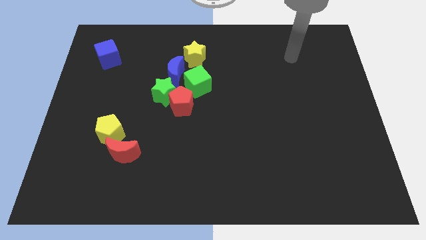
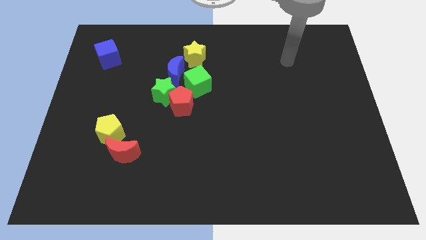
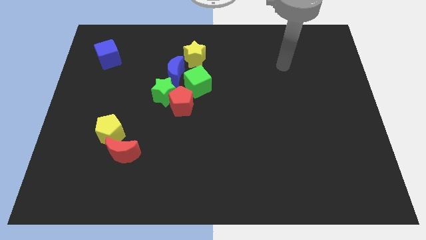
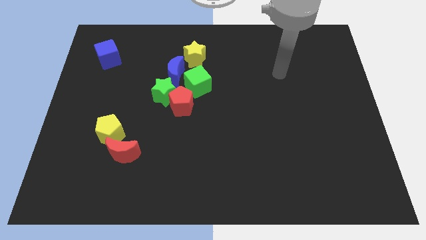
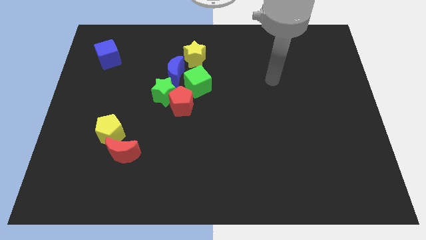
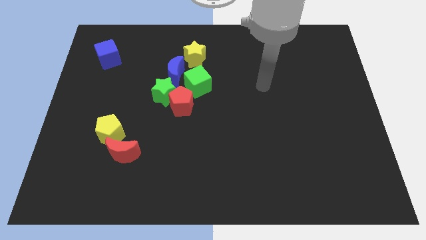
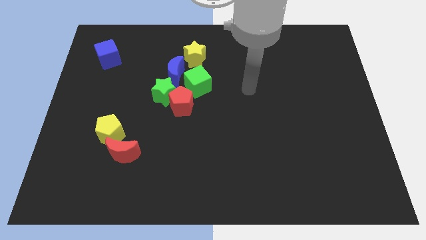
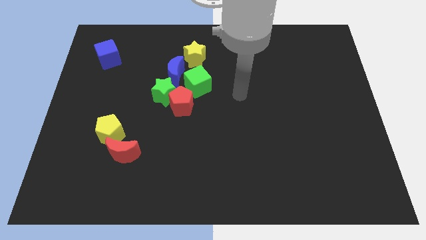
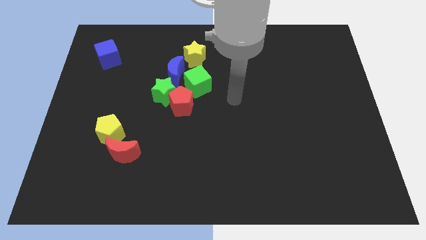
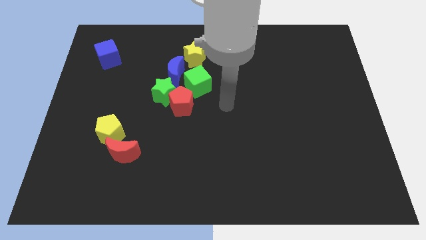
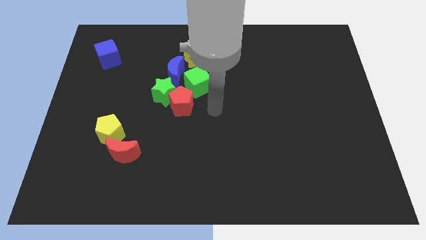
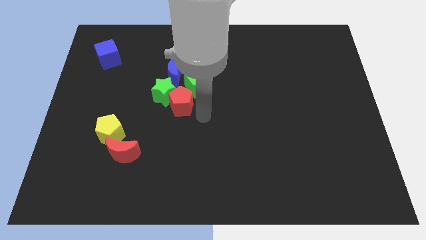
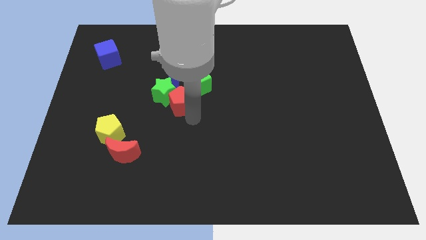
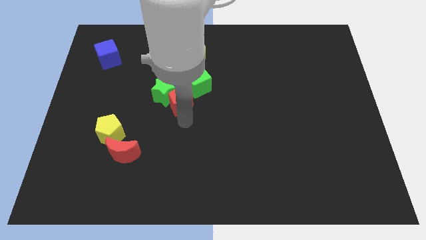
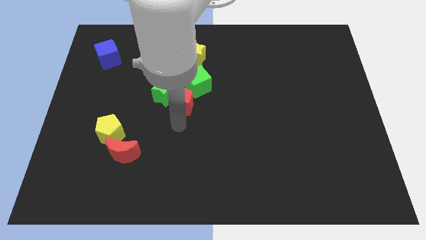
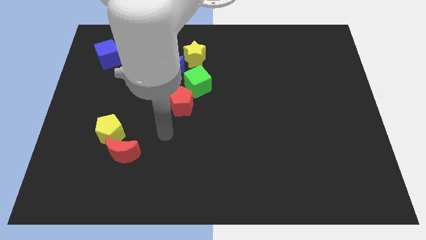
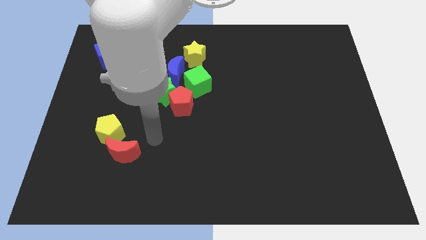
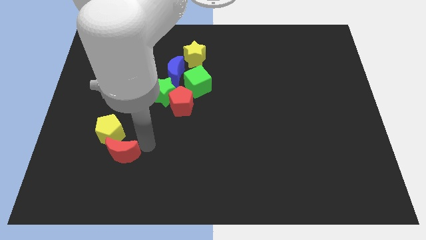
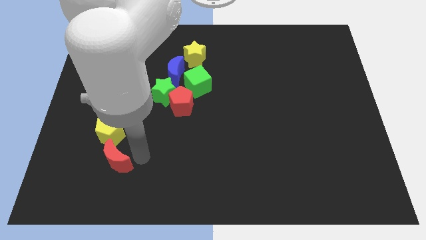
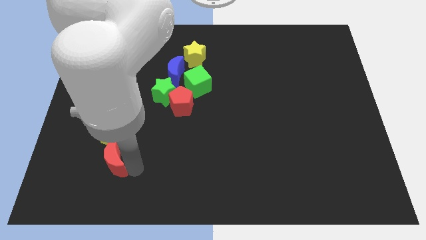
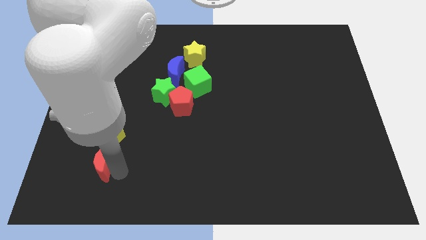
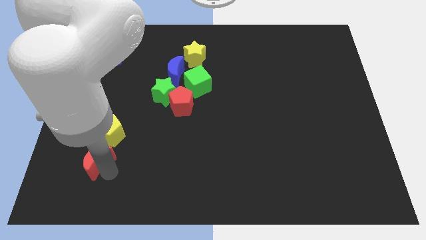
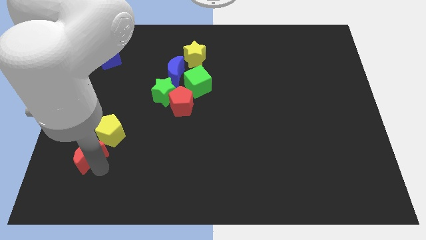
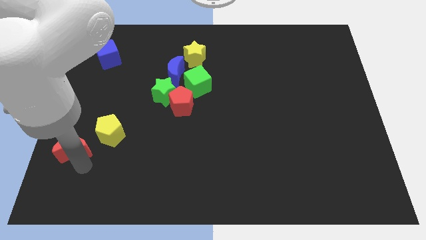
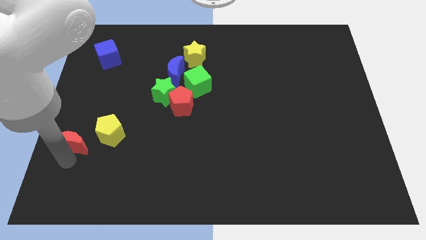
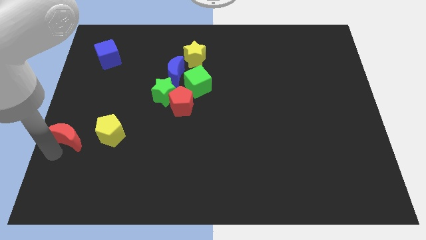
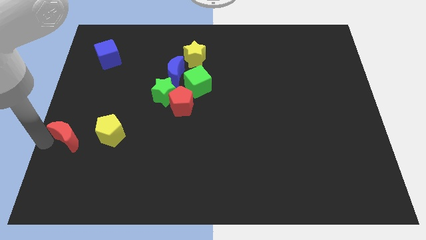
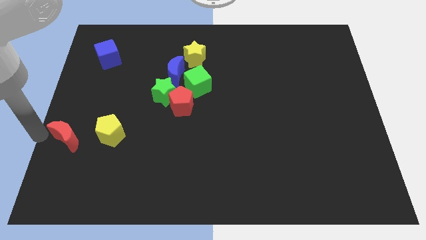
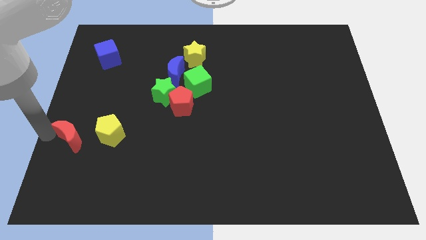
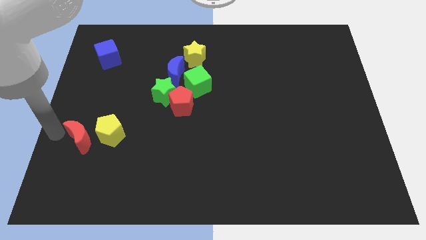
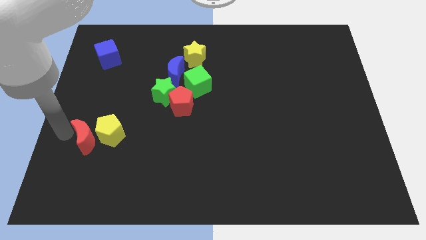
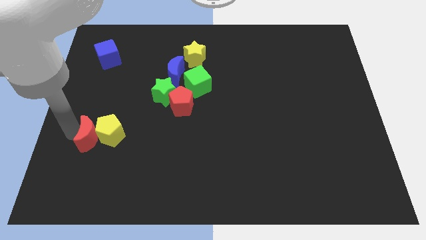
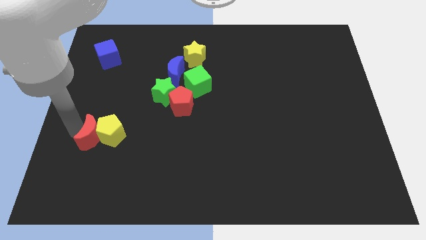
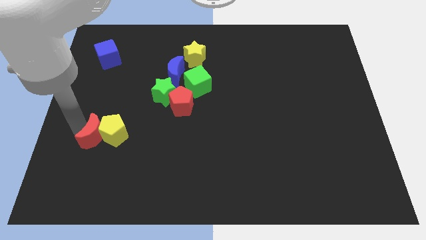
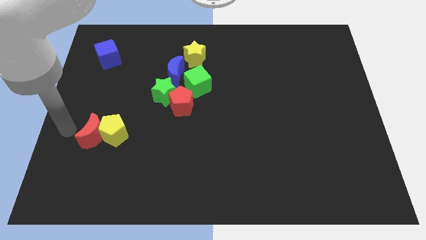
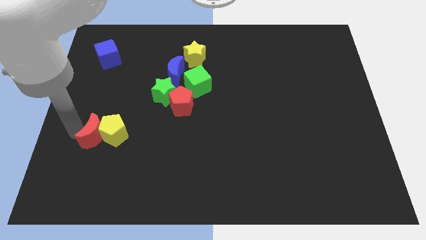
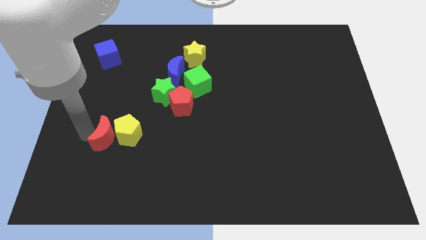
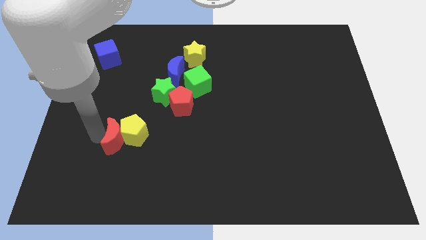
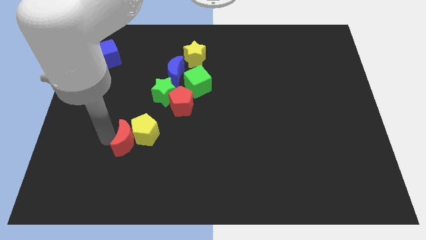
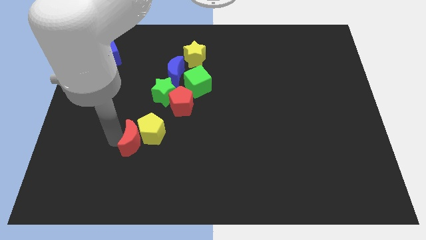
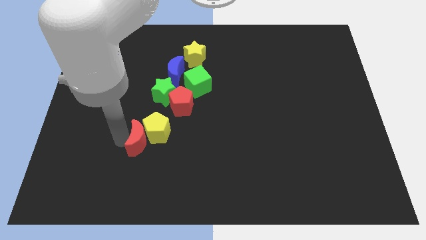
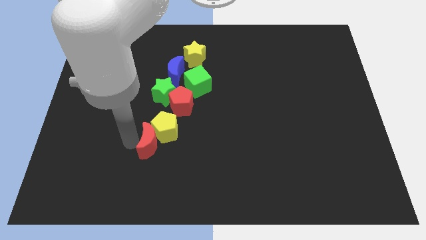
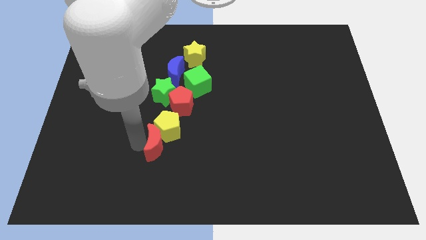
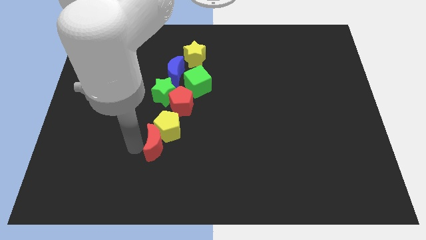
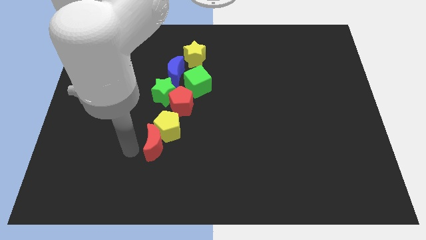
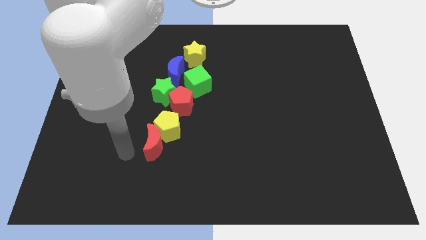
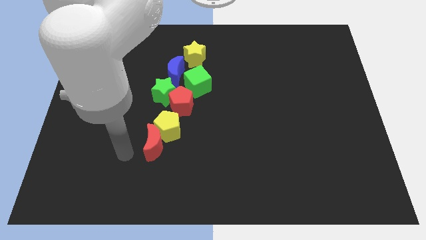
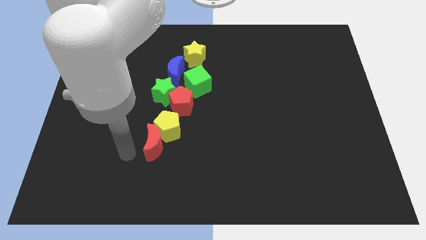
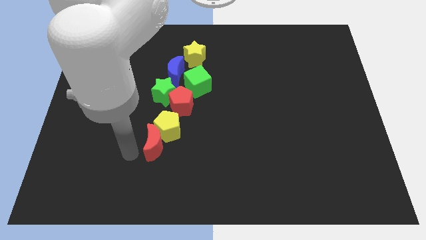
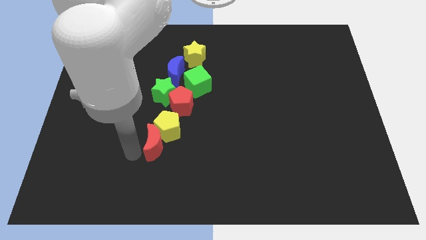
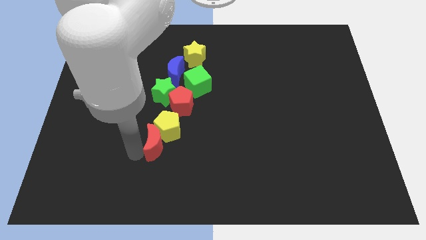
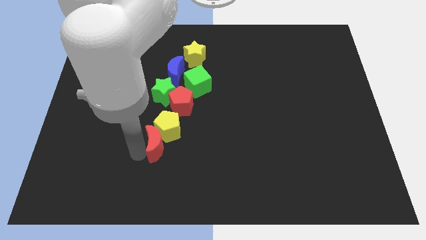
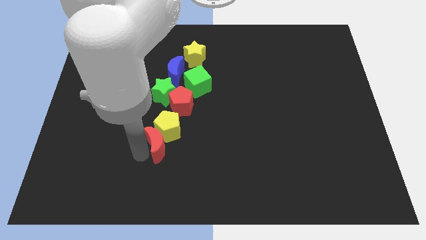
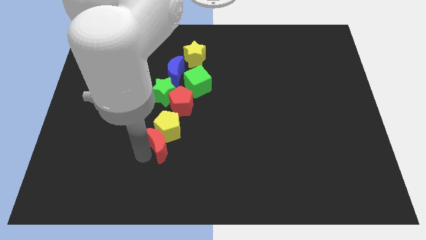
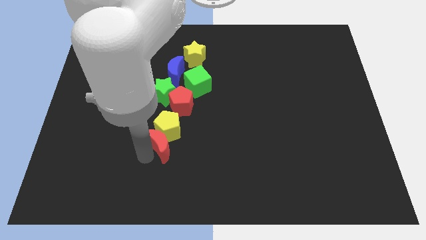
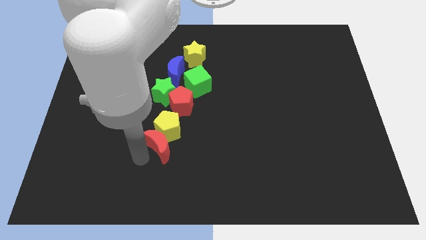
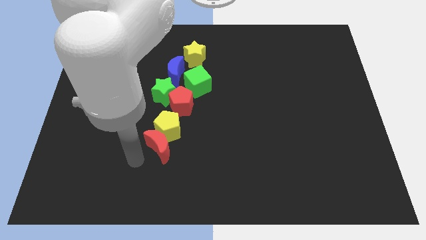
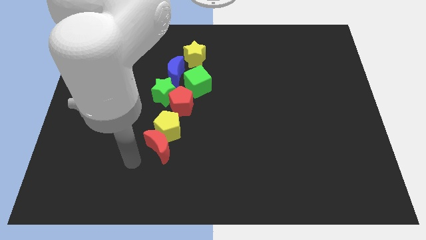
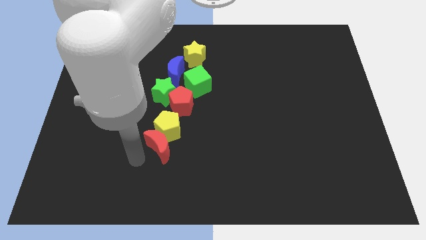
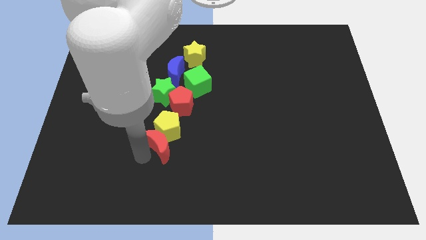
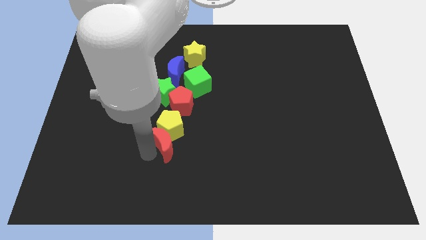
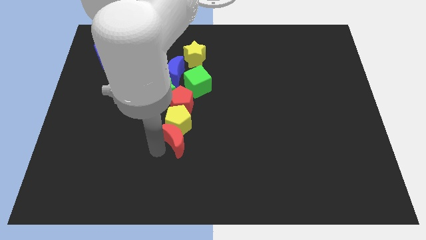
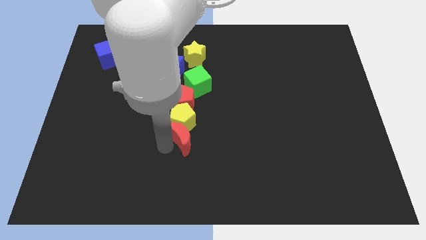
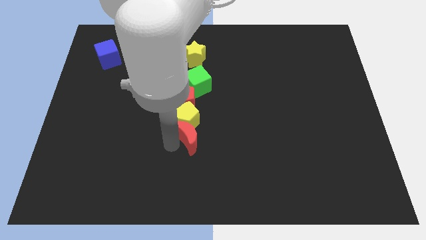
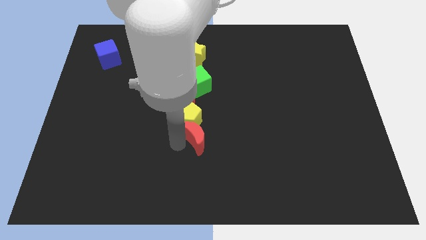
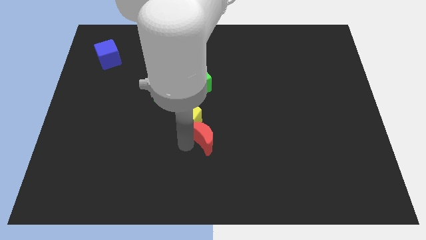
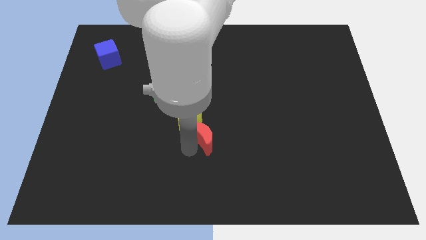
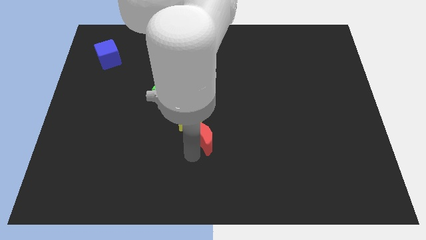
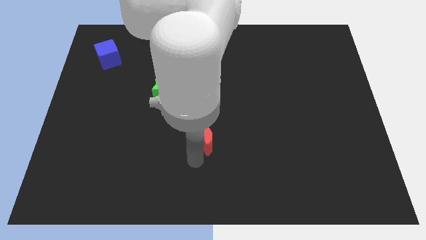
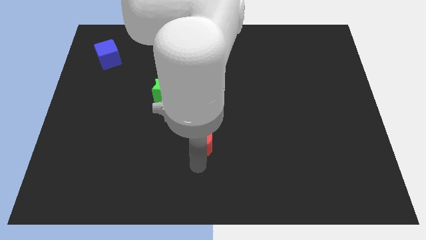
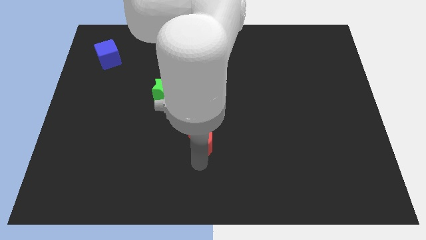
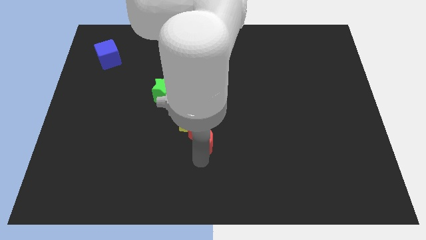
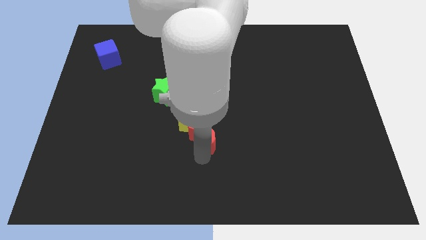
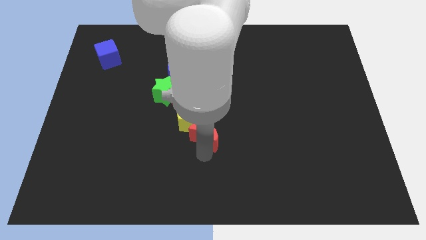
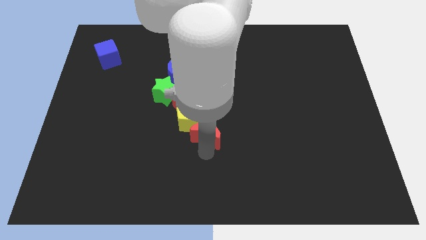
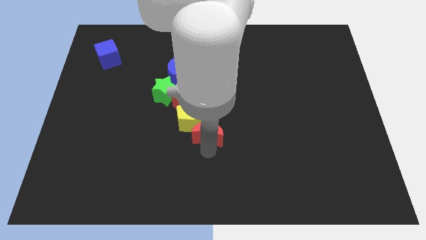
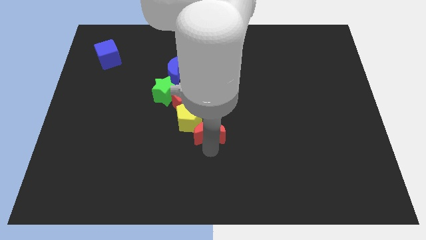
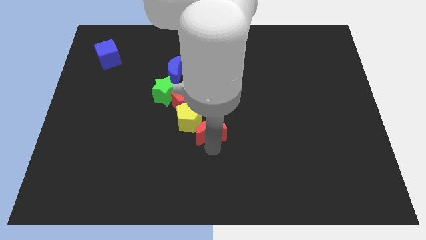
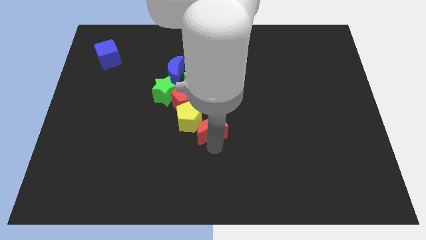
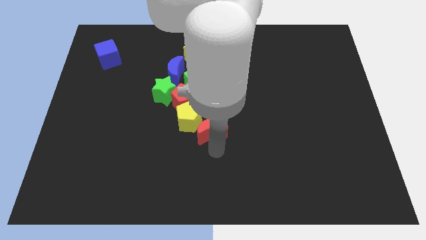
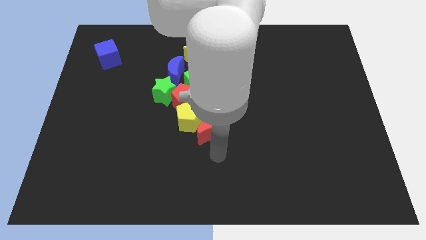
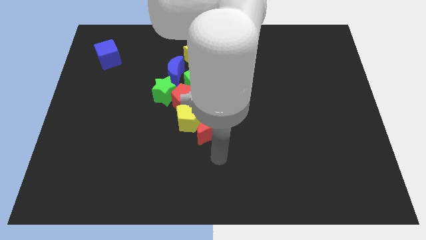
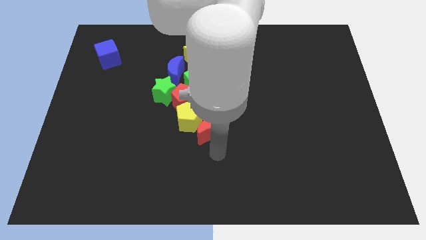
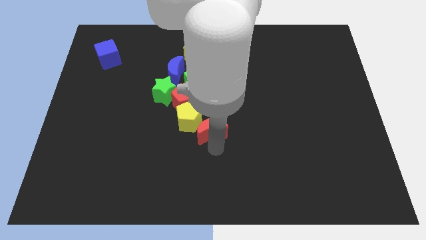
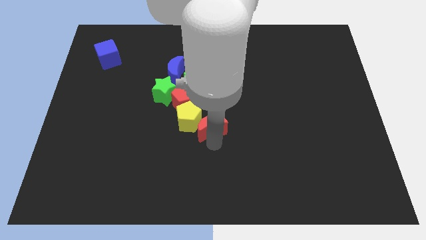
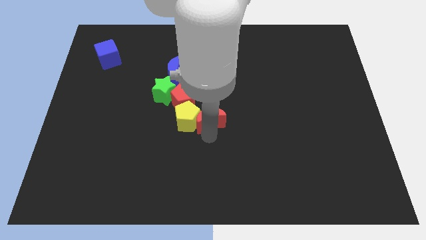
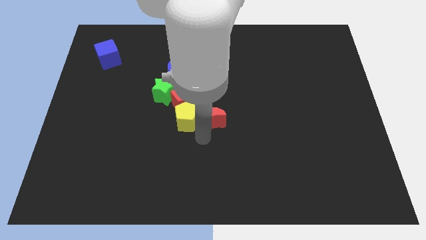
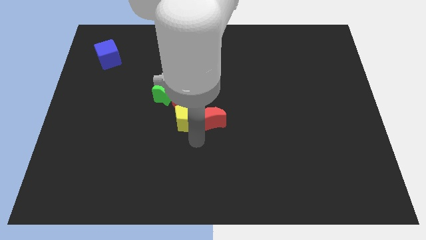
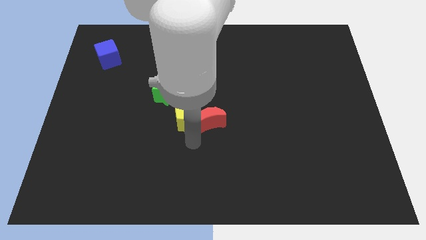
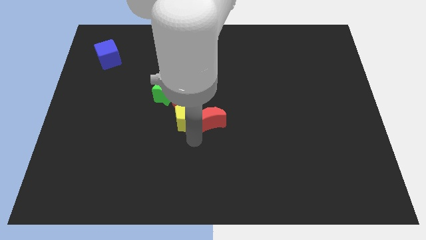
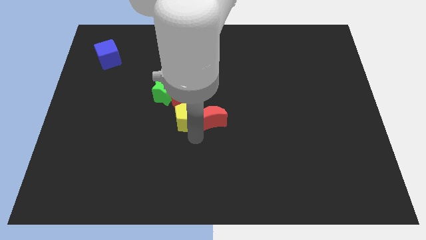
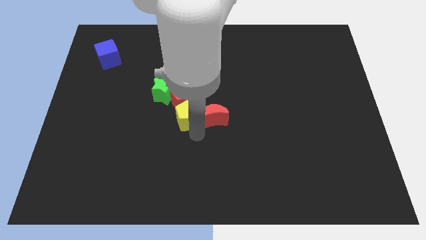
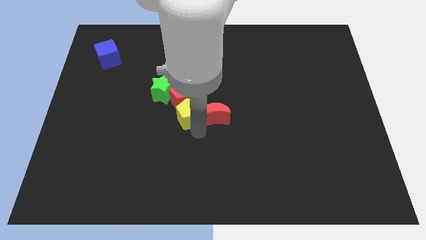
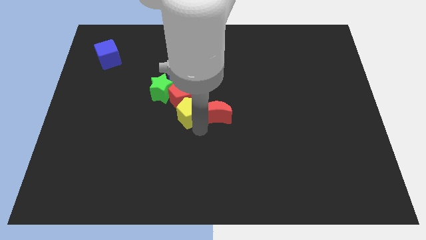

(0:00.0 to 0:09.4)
move the red moon to the right of the red pentagon
